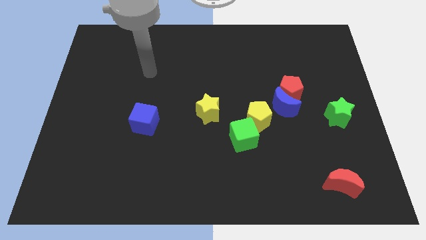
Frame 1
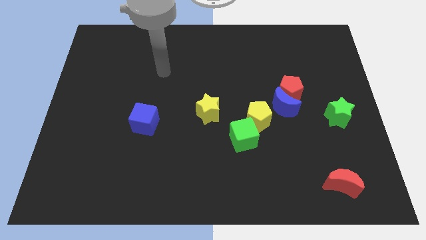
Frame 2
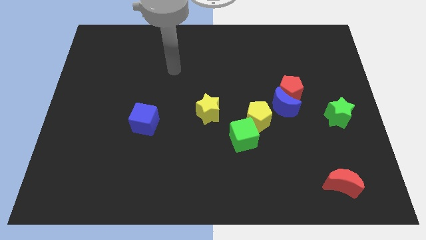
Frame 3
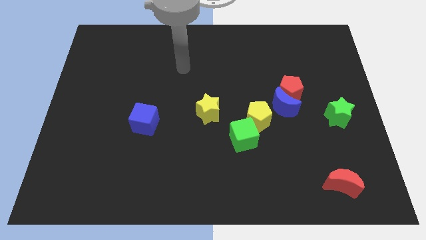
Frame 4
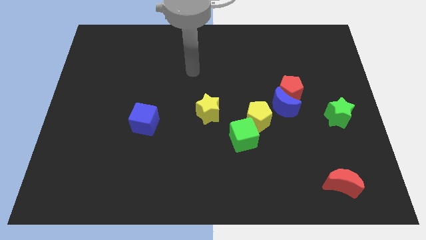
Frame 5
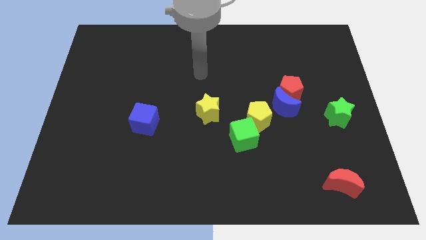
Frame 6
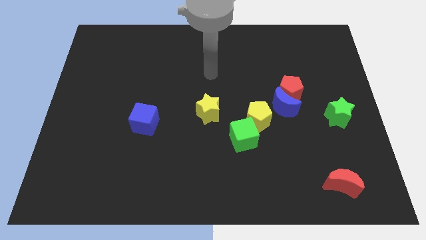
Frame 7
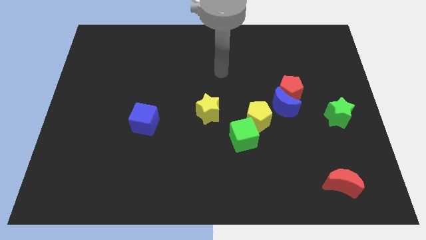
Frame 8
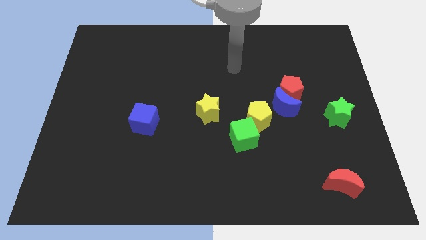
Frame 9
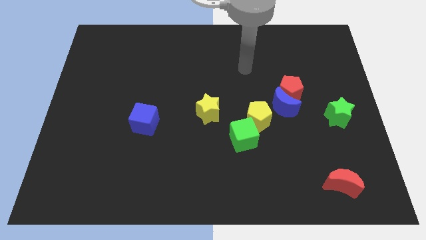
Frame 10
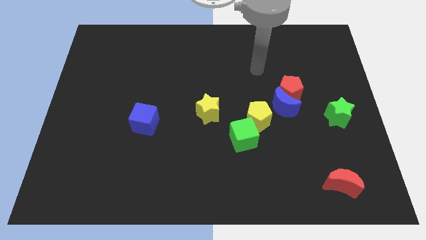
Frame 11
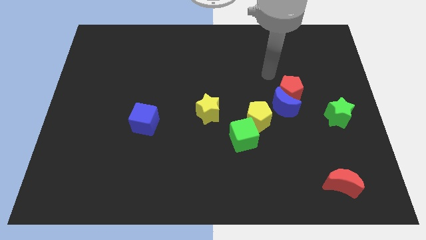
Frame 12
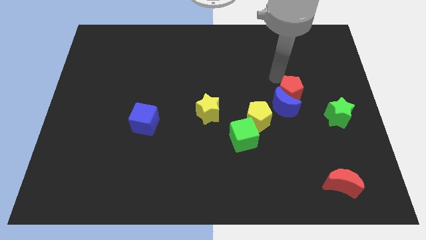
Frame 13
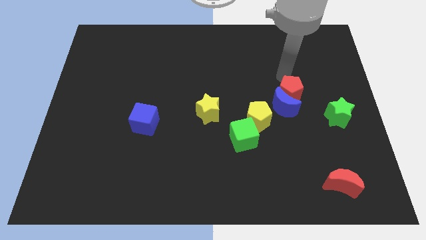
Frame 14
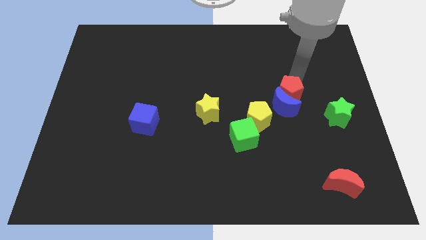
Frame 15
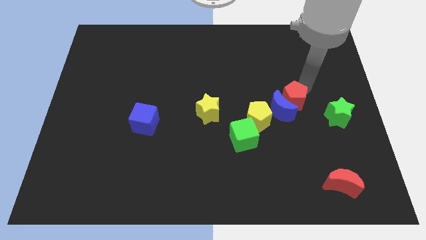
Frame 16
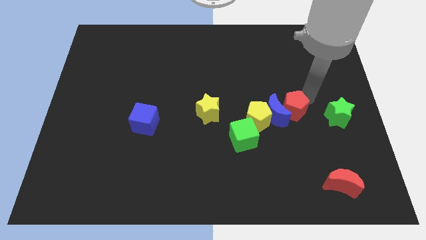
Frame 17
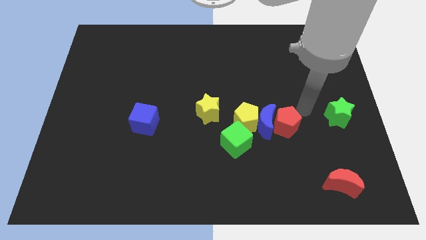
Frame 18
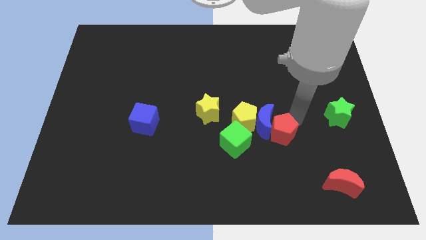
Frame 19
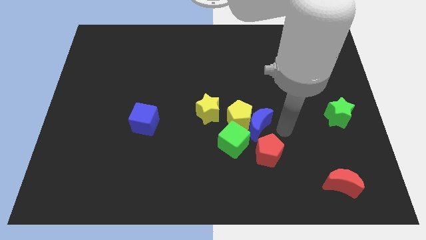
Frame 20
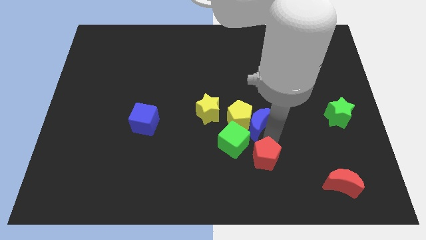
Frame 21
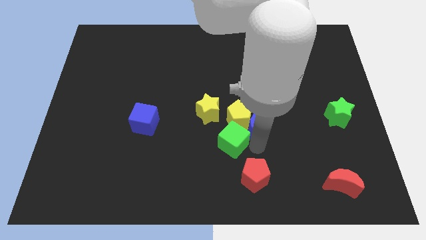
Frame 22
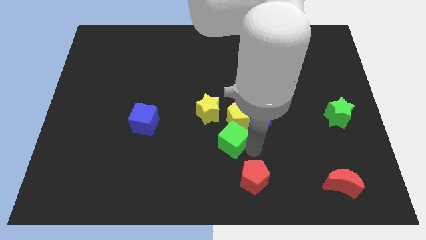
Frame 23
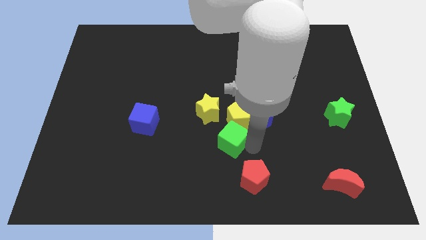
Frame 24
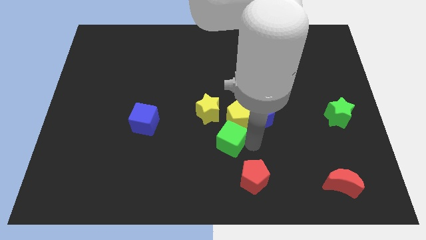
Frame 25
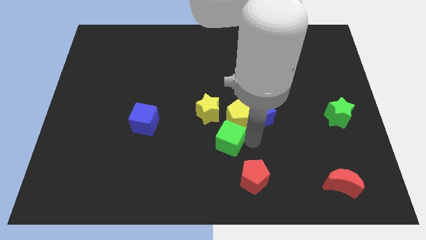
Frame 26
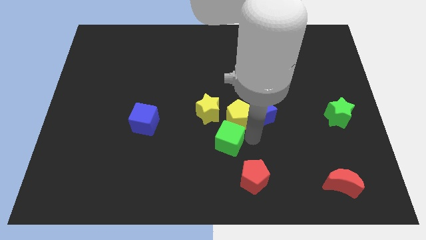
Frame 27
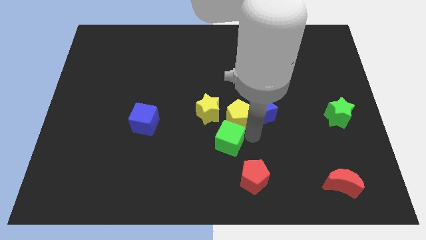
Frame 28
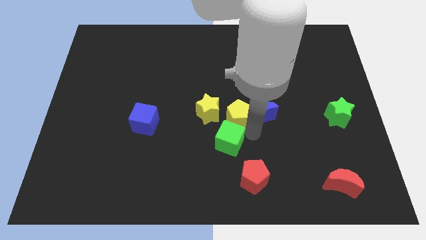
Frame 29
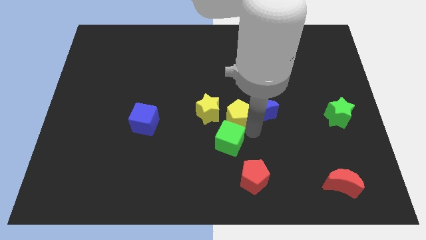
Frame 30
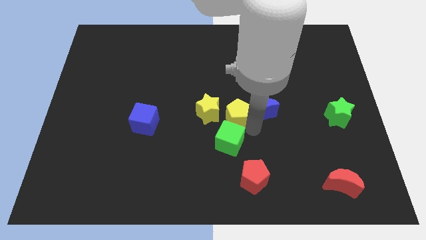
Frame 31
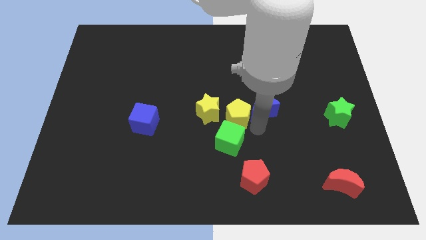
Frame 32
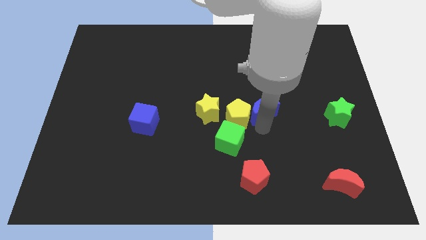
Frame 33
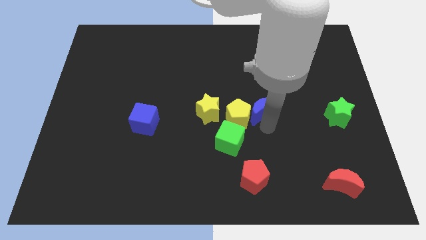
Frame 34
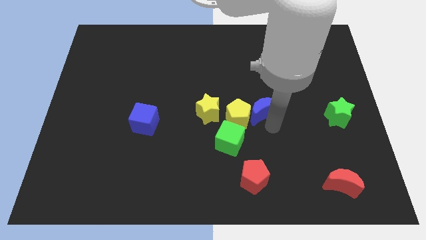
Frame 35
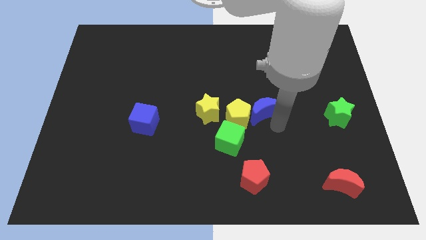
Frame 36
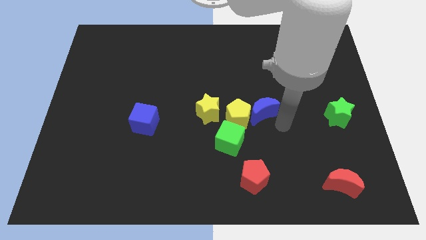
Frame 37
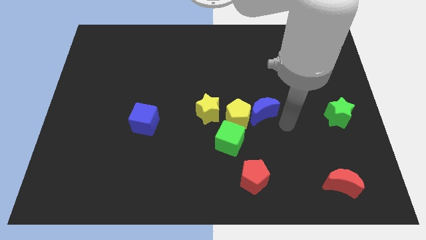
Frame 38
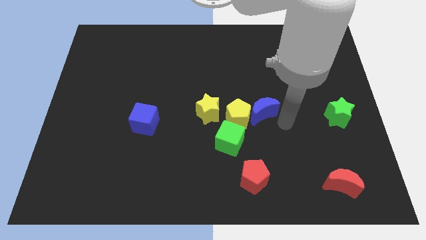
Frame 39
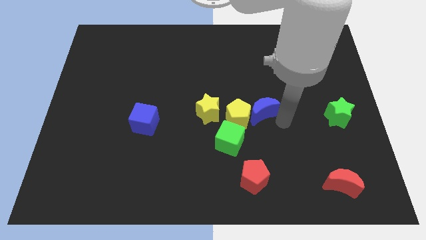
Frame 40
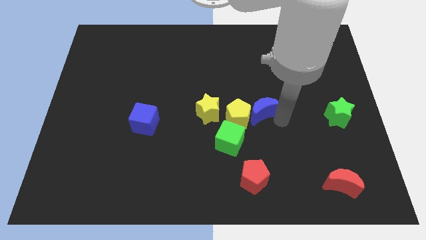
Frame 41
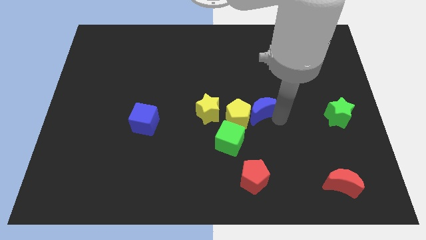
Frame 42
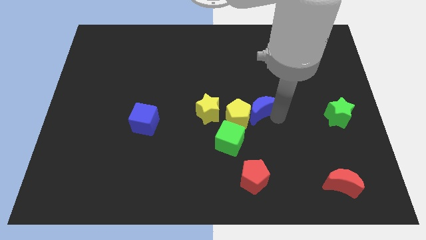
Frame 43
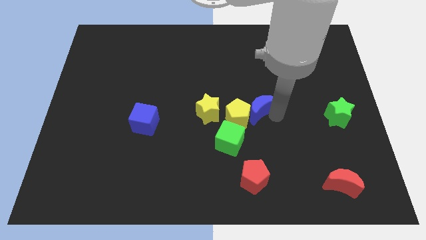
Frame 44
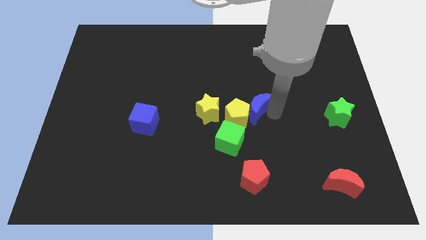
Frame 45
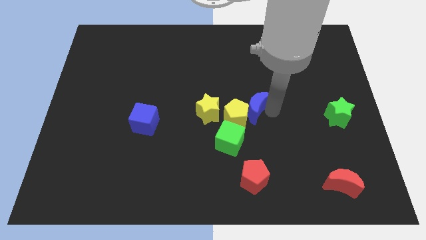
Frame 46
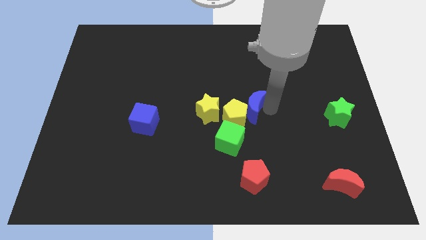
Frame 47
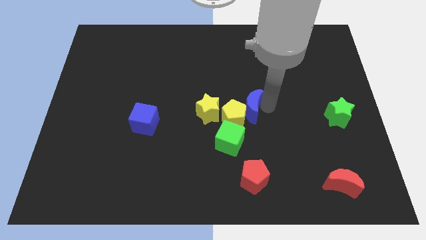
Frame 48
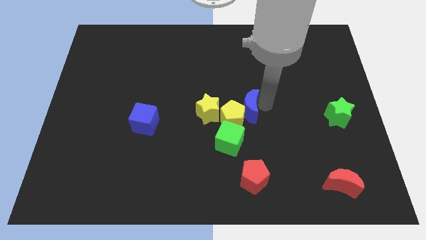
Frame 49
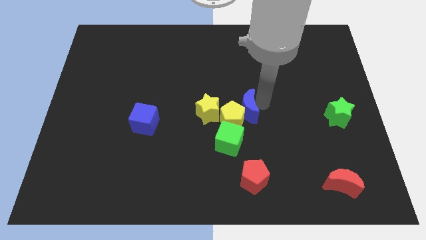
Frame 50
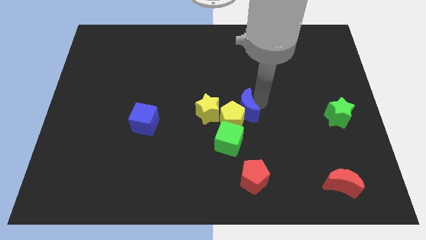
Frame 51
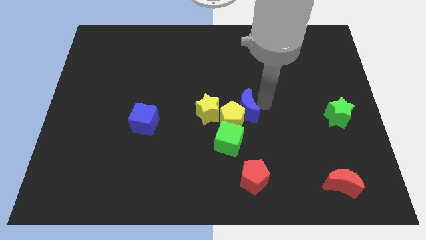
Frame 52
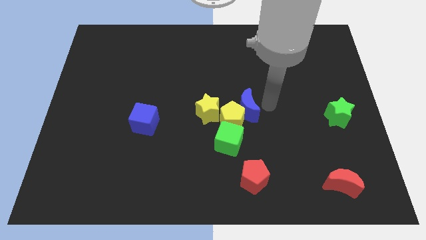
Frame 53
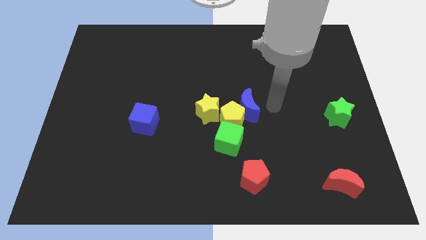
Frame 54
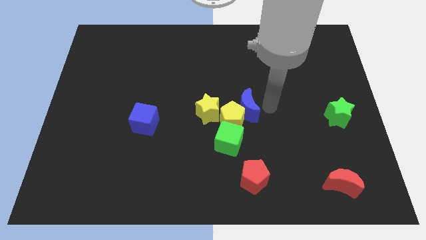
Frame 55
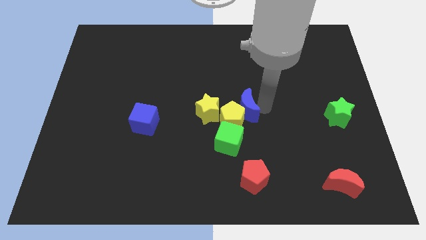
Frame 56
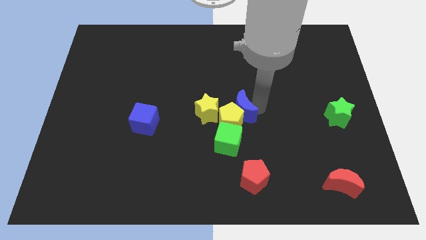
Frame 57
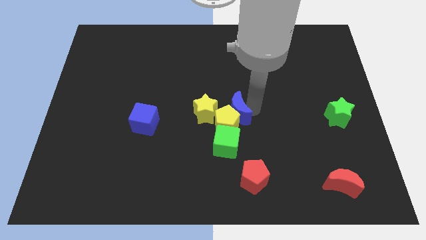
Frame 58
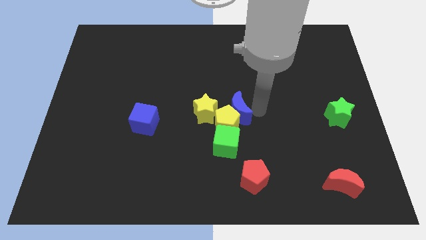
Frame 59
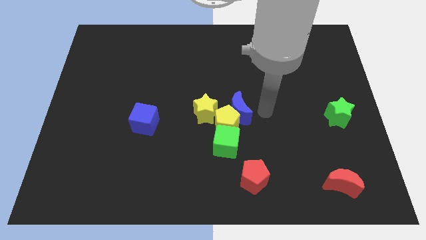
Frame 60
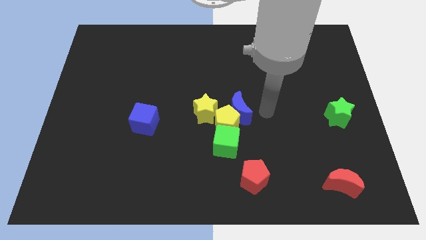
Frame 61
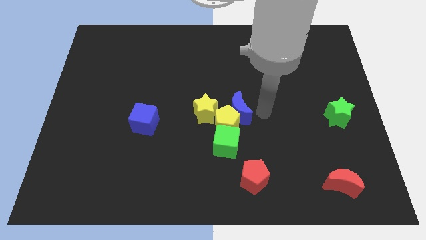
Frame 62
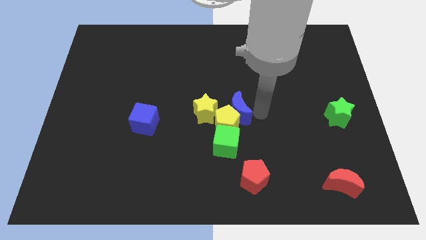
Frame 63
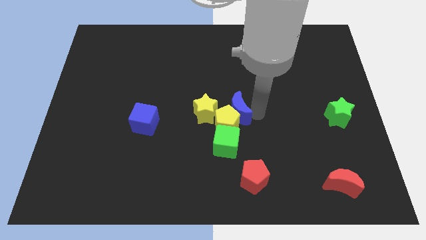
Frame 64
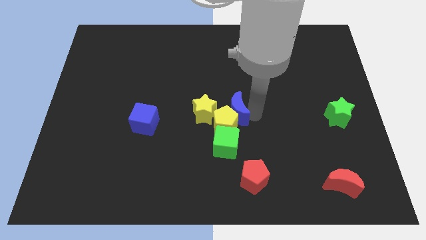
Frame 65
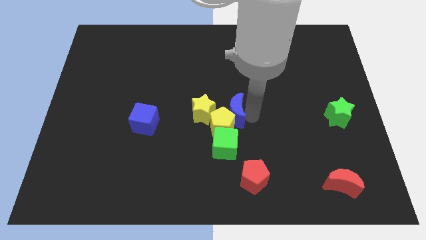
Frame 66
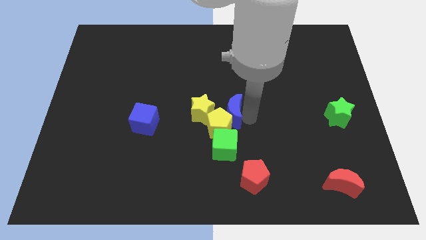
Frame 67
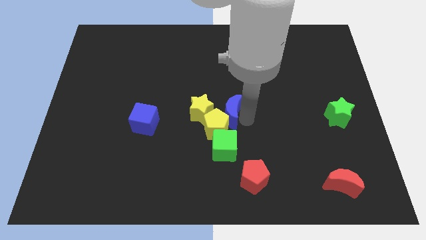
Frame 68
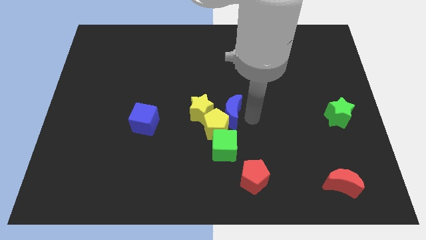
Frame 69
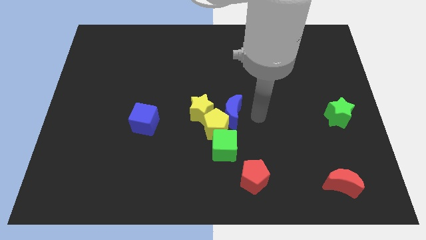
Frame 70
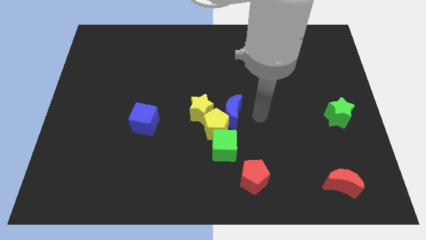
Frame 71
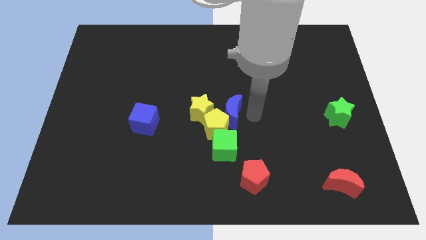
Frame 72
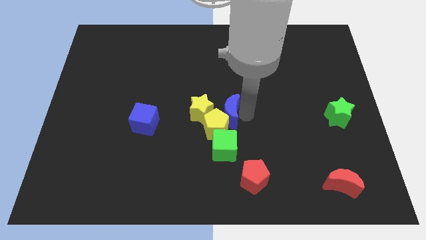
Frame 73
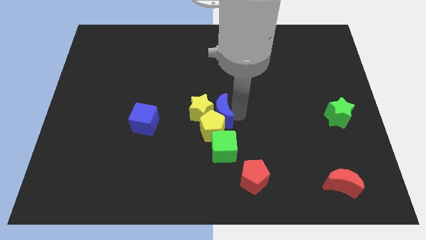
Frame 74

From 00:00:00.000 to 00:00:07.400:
slide the blue moon next to the yellow star

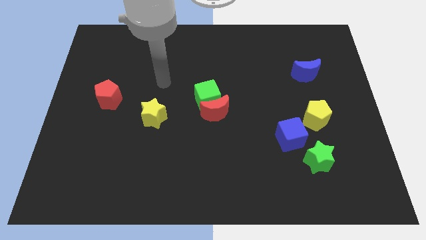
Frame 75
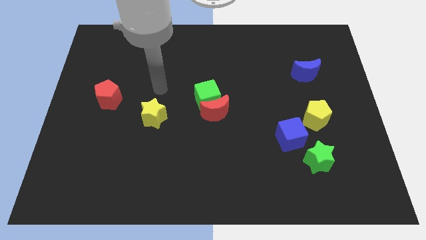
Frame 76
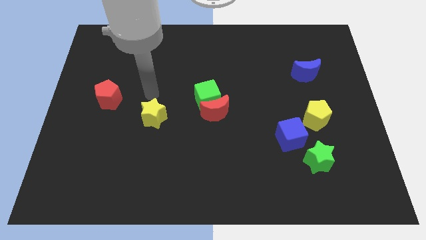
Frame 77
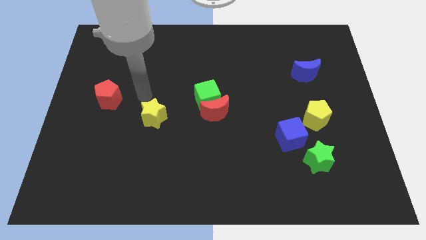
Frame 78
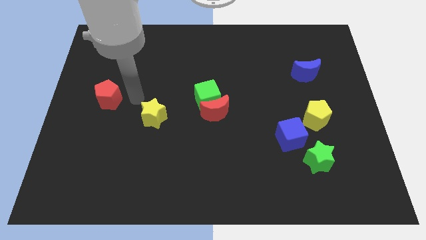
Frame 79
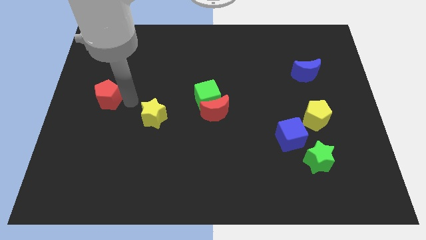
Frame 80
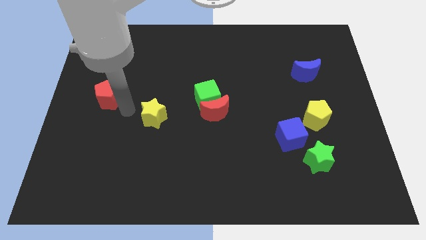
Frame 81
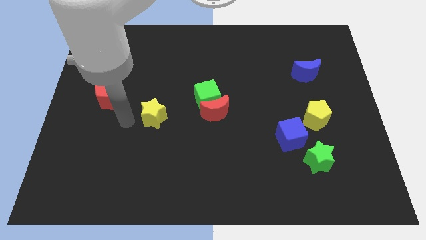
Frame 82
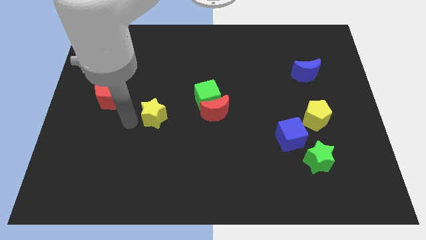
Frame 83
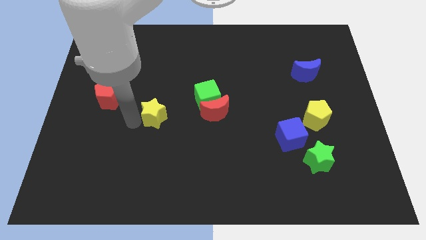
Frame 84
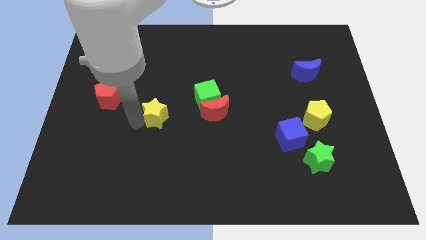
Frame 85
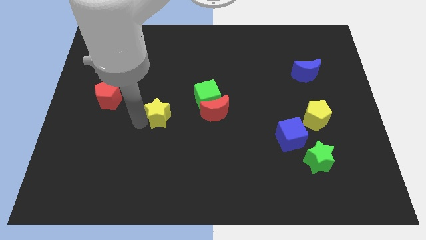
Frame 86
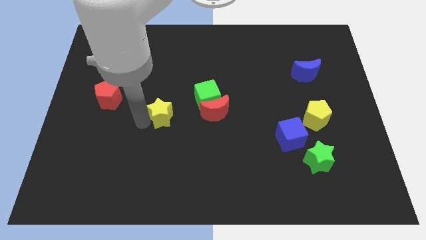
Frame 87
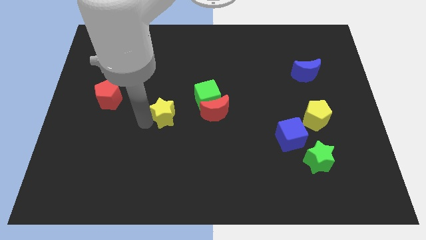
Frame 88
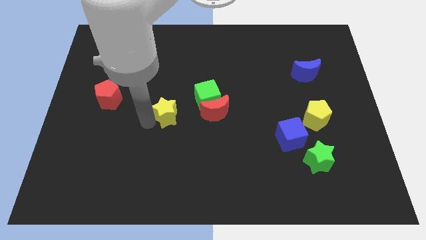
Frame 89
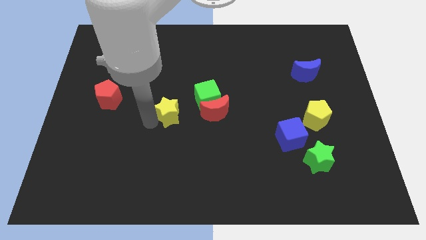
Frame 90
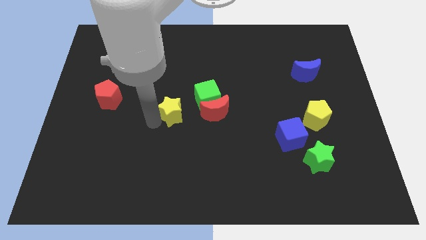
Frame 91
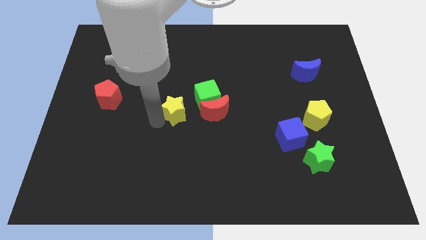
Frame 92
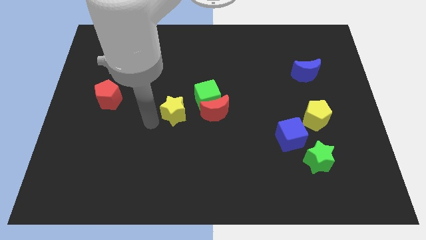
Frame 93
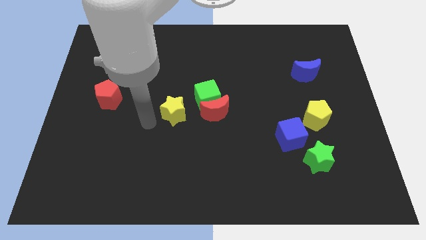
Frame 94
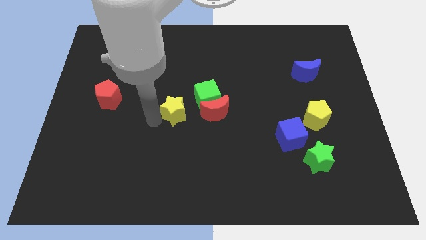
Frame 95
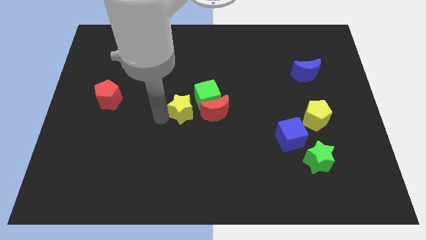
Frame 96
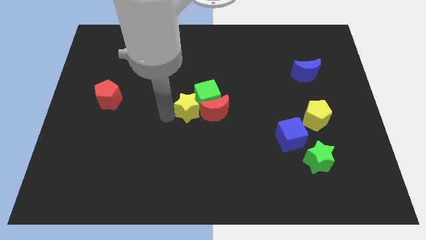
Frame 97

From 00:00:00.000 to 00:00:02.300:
put the yellow star to the green cube
